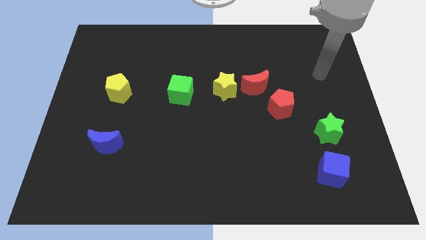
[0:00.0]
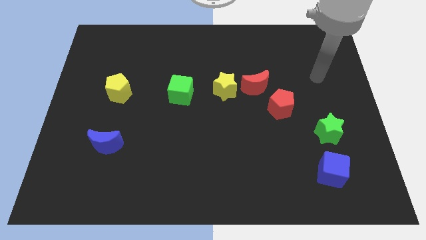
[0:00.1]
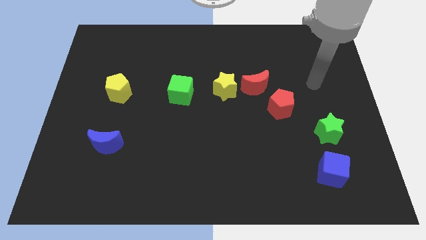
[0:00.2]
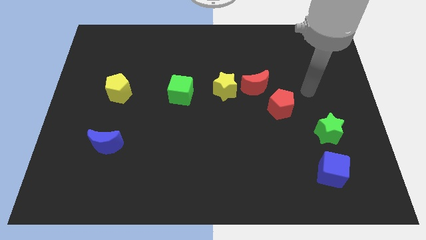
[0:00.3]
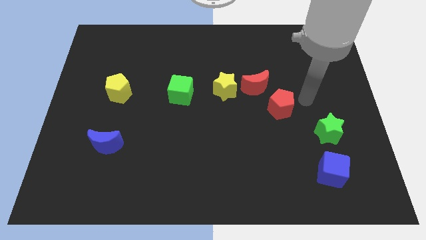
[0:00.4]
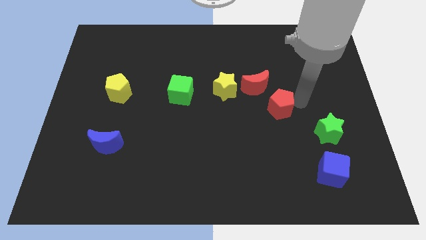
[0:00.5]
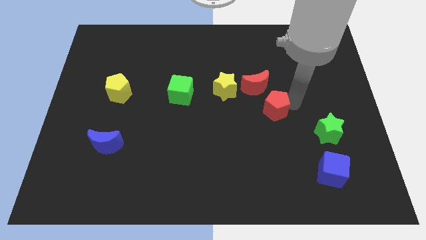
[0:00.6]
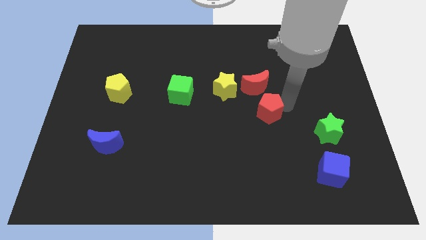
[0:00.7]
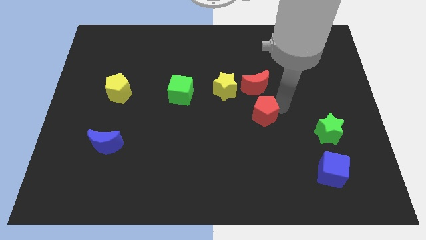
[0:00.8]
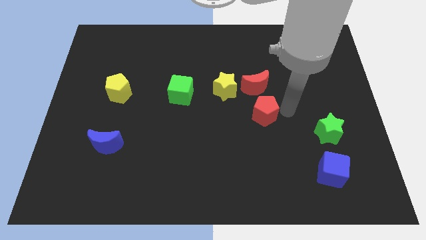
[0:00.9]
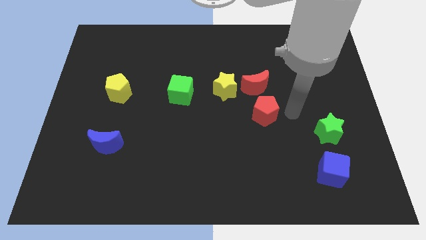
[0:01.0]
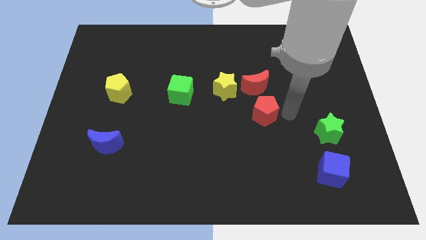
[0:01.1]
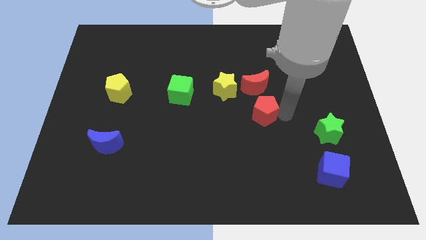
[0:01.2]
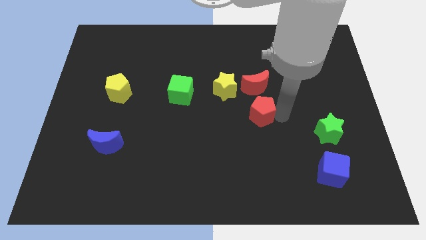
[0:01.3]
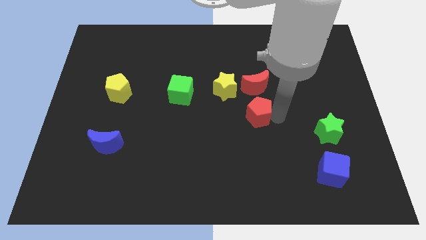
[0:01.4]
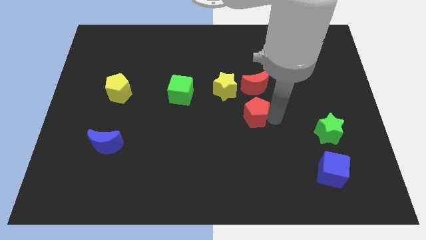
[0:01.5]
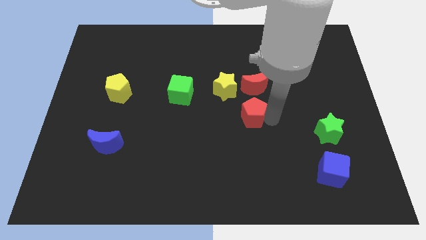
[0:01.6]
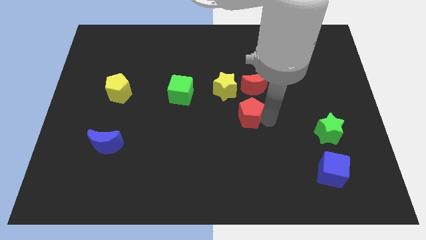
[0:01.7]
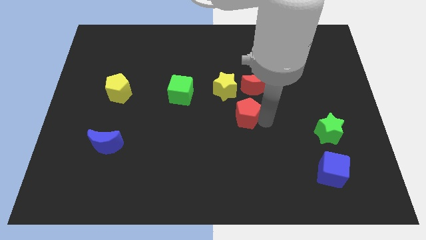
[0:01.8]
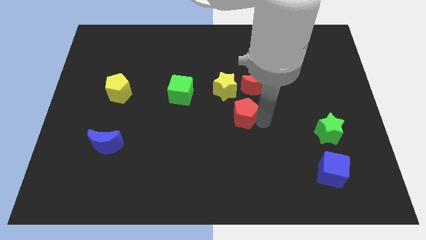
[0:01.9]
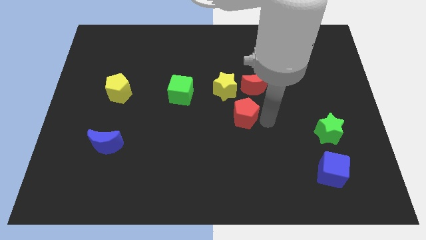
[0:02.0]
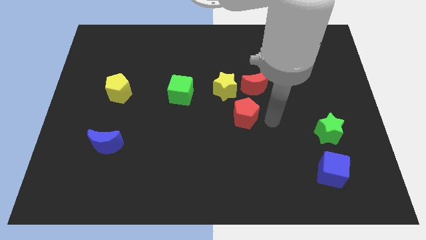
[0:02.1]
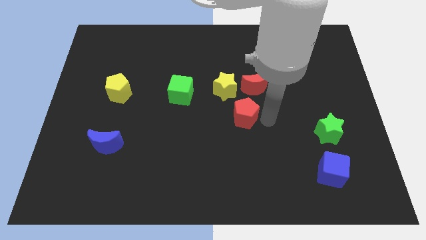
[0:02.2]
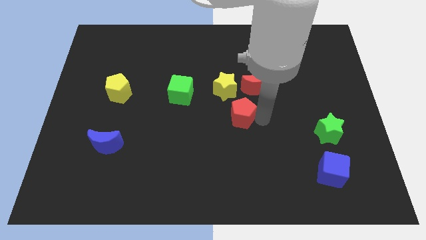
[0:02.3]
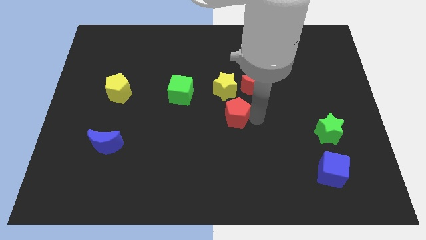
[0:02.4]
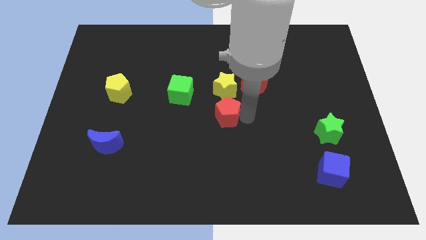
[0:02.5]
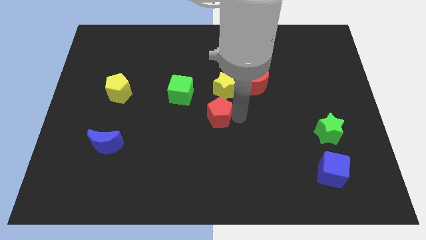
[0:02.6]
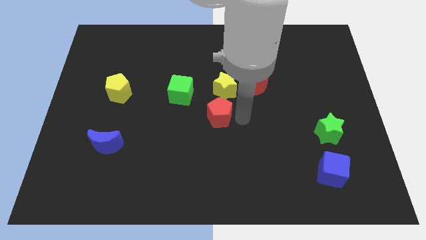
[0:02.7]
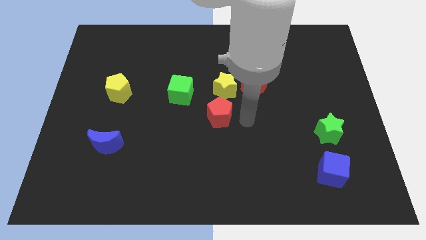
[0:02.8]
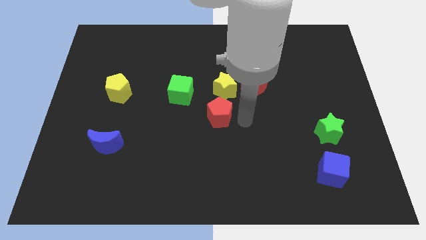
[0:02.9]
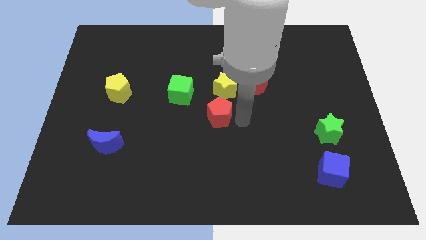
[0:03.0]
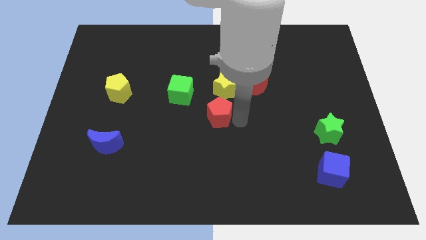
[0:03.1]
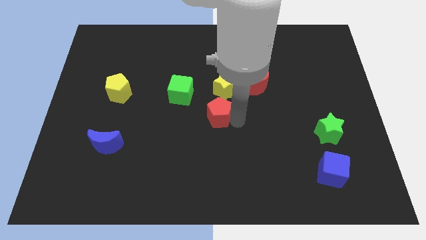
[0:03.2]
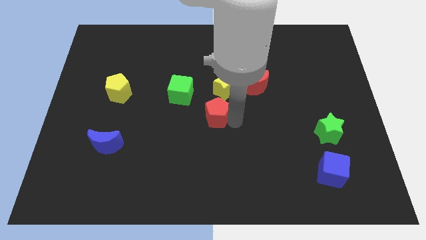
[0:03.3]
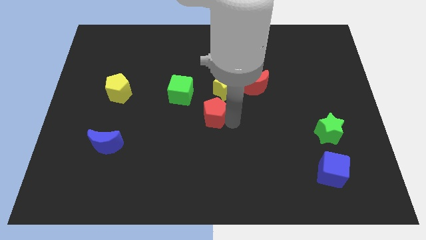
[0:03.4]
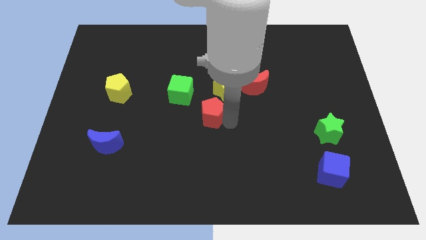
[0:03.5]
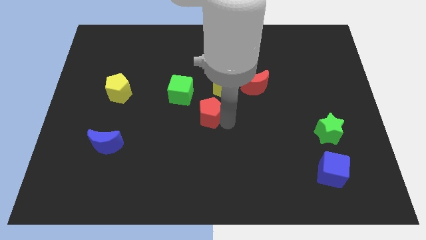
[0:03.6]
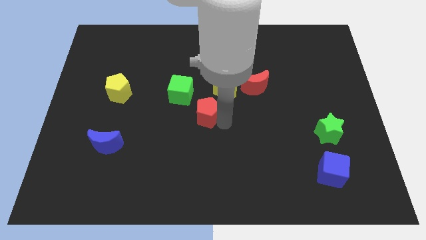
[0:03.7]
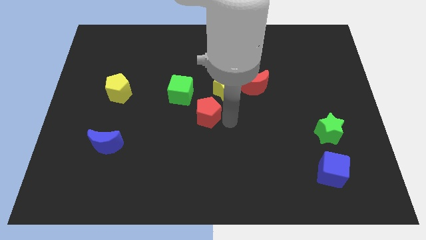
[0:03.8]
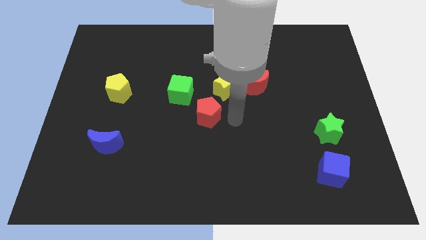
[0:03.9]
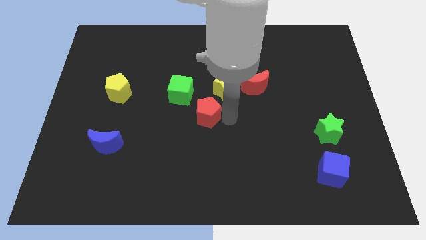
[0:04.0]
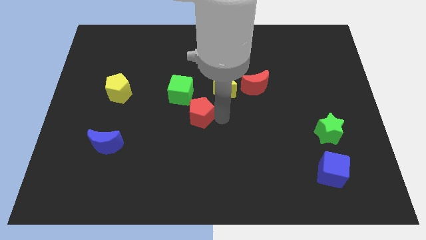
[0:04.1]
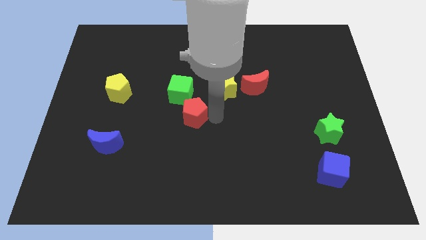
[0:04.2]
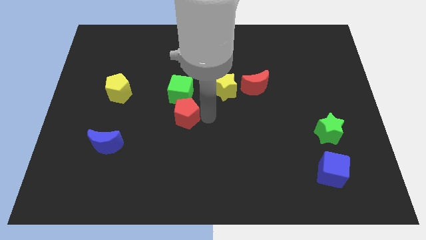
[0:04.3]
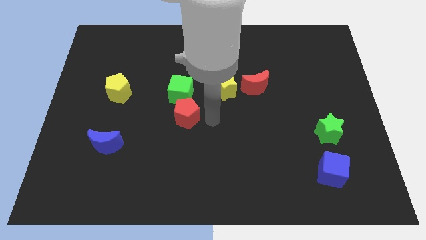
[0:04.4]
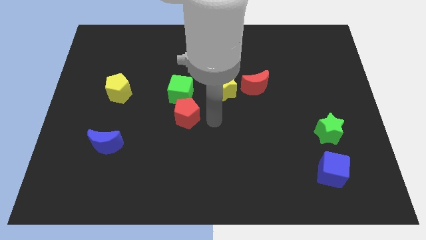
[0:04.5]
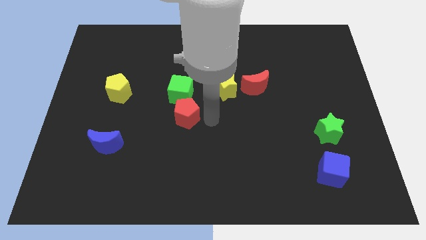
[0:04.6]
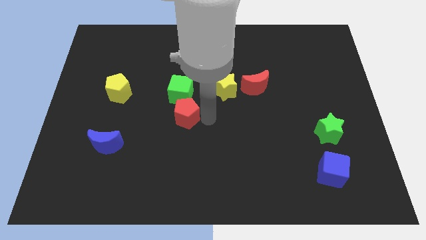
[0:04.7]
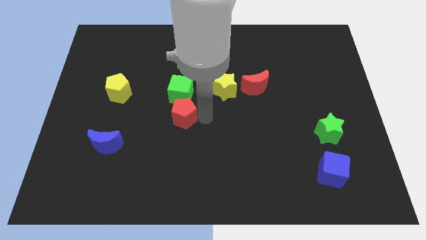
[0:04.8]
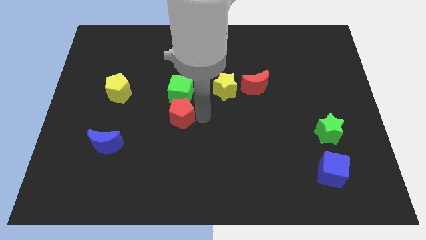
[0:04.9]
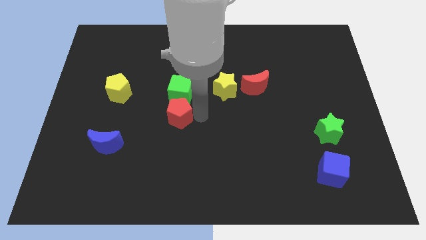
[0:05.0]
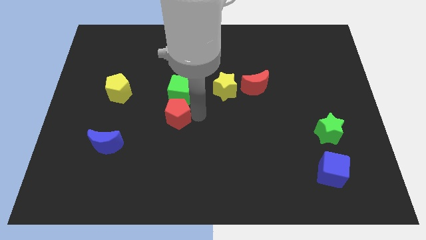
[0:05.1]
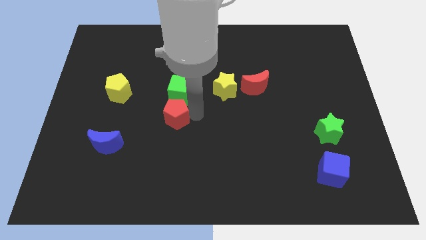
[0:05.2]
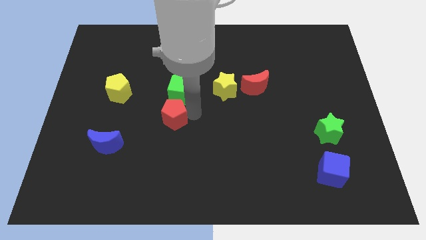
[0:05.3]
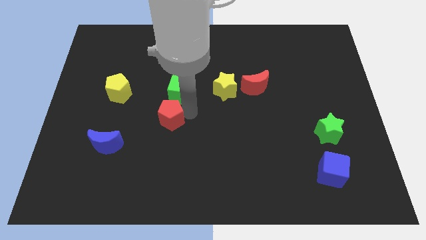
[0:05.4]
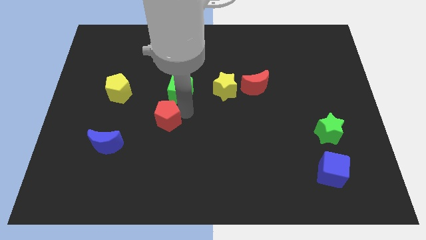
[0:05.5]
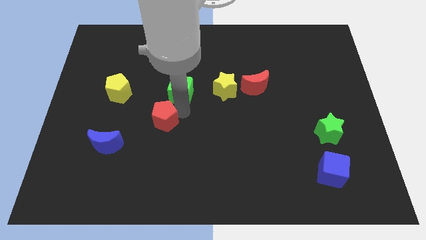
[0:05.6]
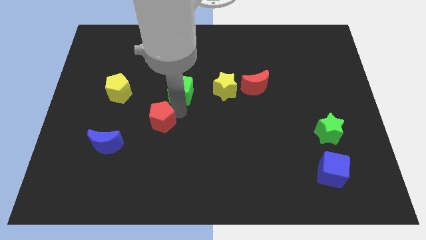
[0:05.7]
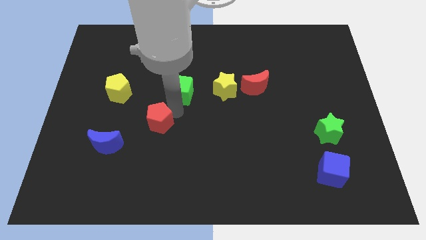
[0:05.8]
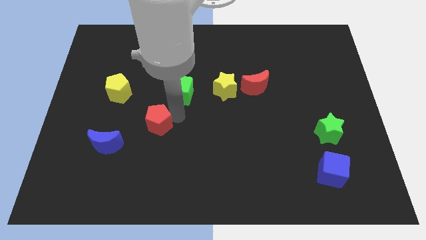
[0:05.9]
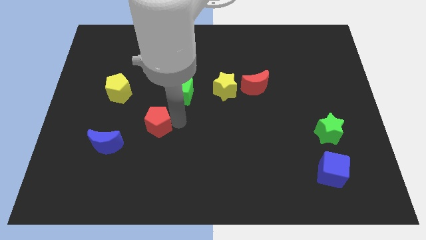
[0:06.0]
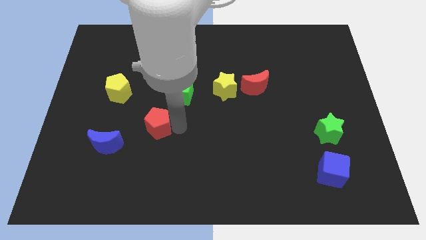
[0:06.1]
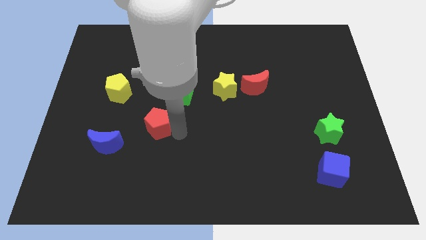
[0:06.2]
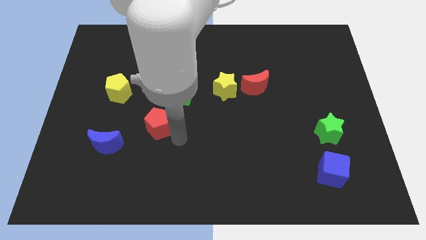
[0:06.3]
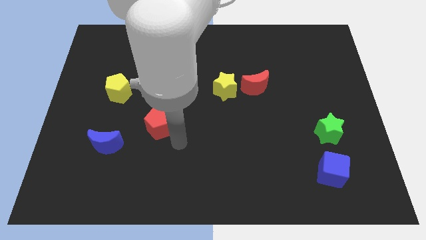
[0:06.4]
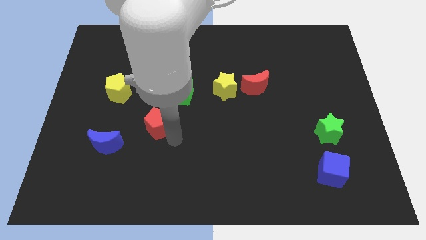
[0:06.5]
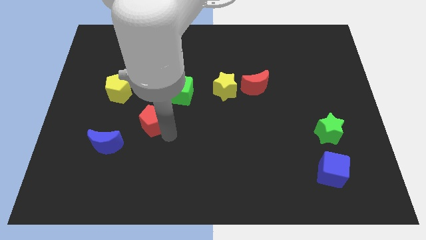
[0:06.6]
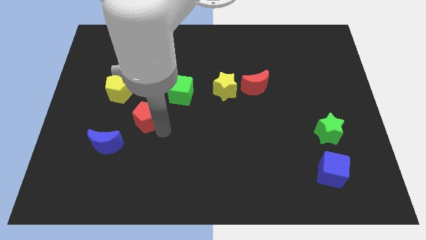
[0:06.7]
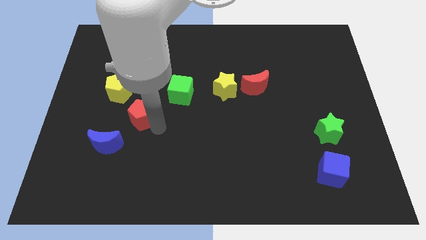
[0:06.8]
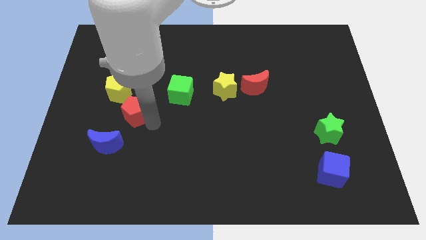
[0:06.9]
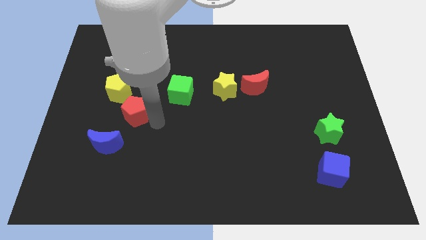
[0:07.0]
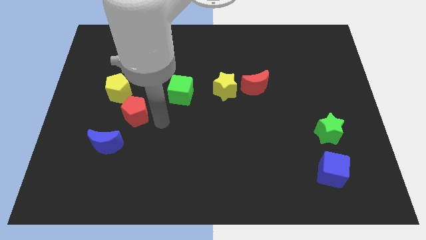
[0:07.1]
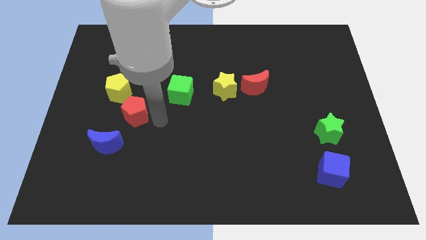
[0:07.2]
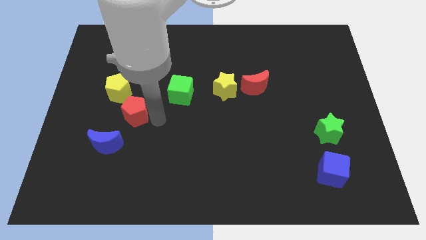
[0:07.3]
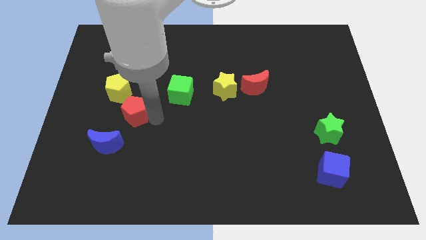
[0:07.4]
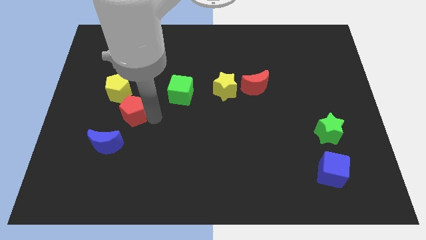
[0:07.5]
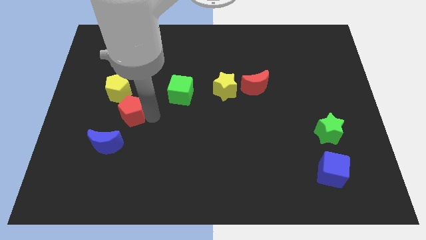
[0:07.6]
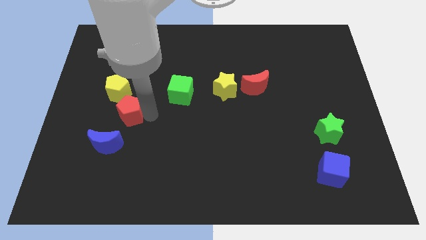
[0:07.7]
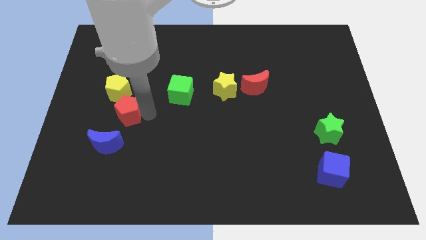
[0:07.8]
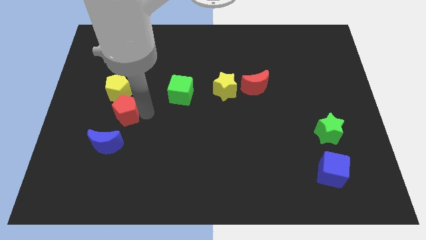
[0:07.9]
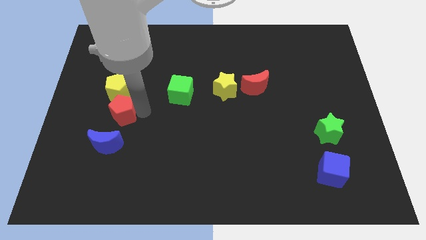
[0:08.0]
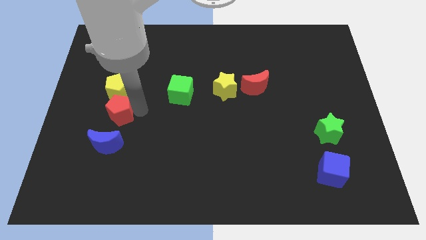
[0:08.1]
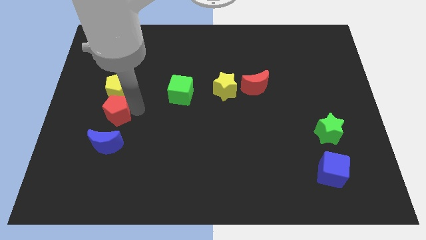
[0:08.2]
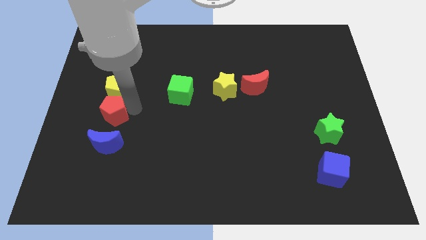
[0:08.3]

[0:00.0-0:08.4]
move the red pentagon diagonally down and to the left of the yellow pentagon
